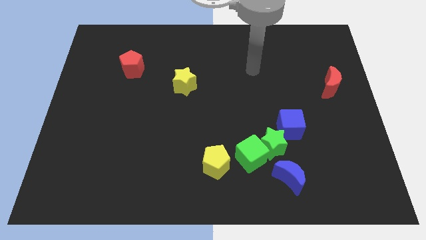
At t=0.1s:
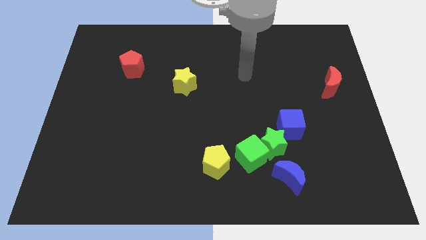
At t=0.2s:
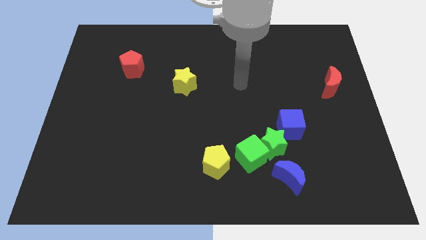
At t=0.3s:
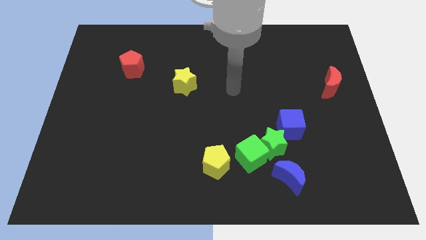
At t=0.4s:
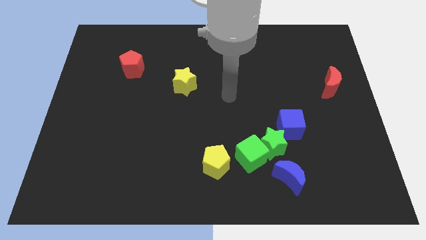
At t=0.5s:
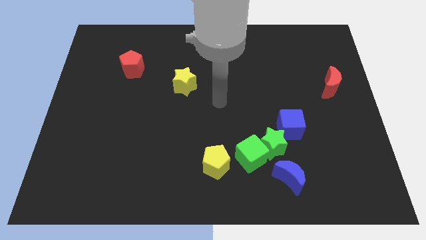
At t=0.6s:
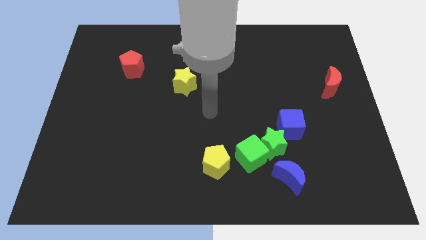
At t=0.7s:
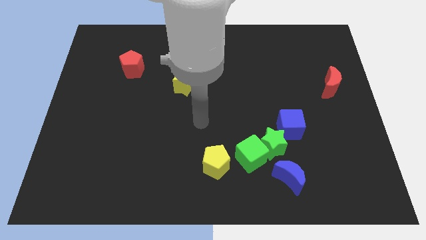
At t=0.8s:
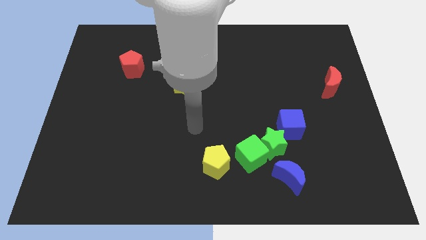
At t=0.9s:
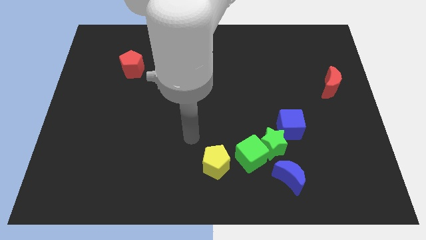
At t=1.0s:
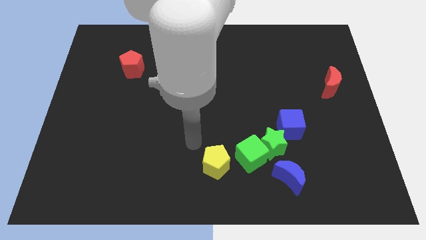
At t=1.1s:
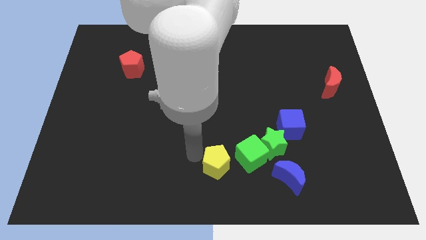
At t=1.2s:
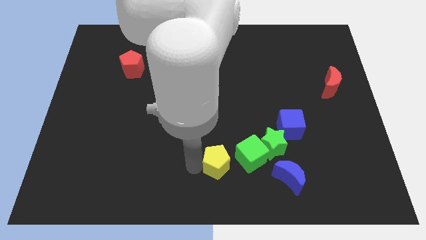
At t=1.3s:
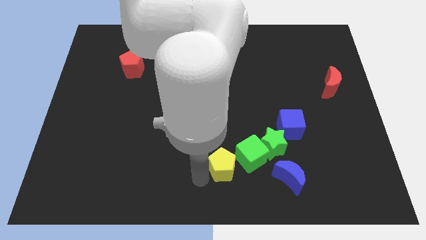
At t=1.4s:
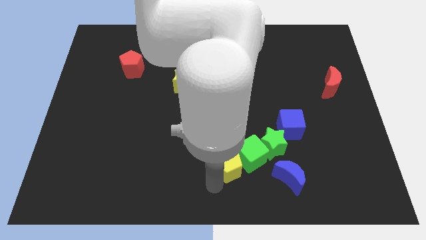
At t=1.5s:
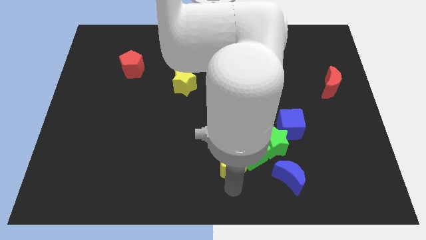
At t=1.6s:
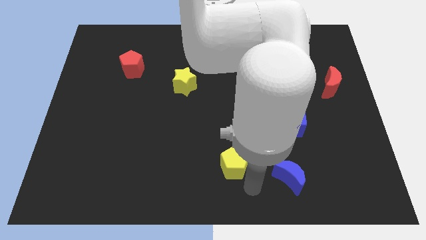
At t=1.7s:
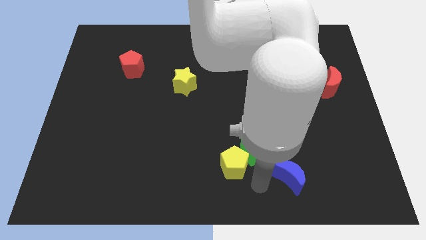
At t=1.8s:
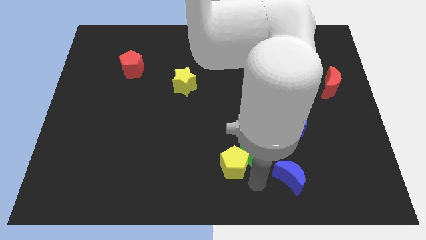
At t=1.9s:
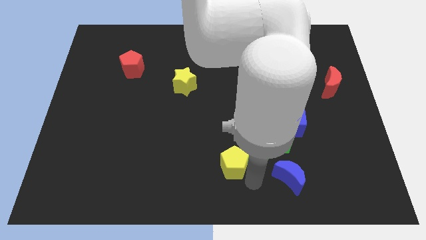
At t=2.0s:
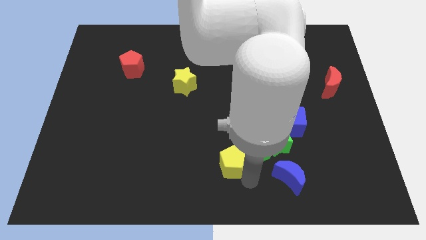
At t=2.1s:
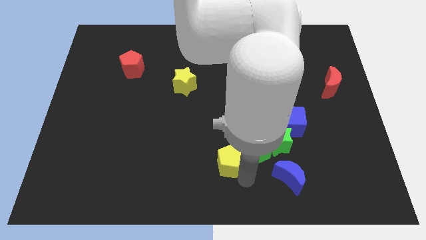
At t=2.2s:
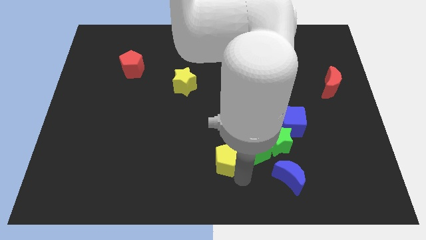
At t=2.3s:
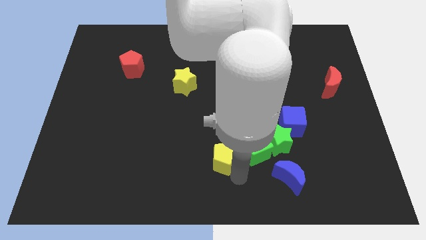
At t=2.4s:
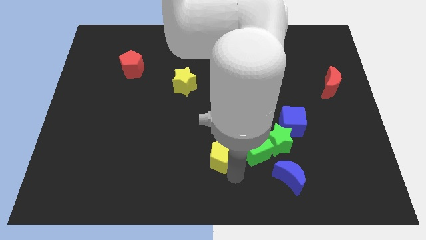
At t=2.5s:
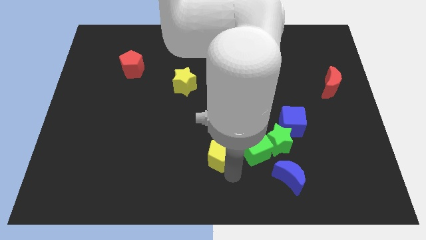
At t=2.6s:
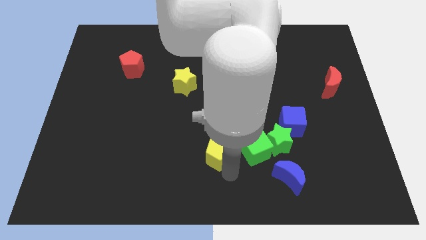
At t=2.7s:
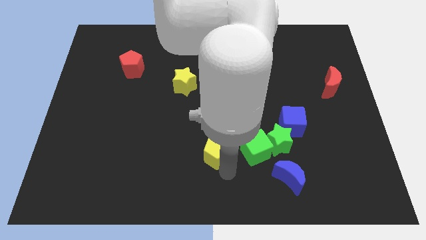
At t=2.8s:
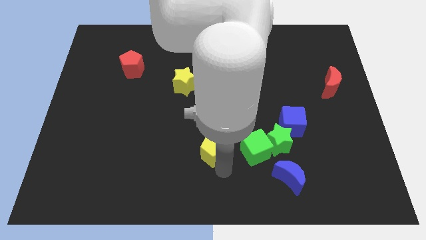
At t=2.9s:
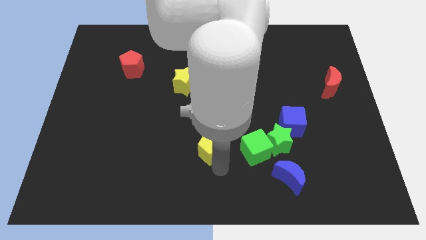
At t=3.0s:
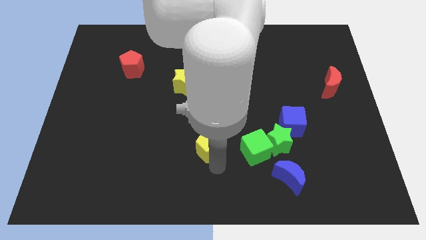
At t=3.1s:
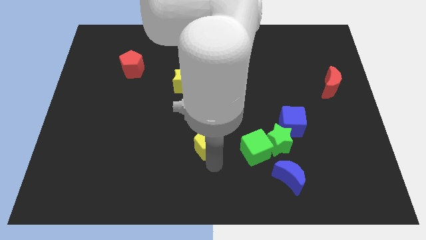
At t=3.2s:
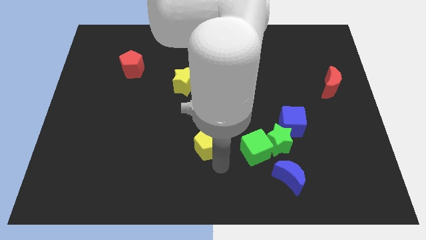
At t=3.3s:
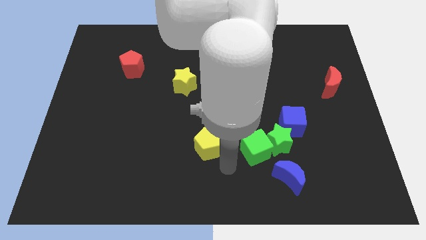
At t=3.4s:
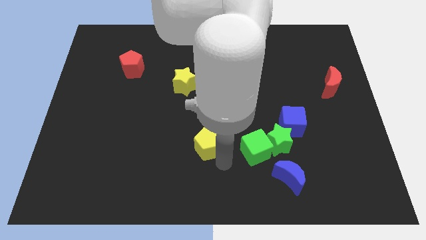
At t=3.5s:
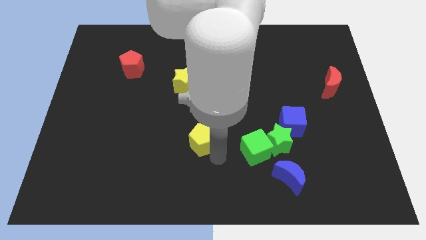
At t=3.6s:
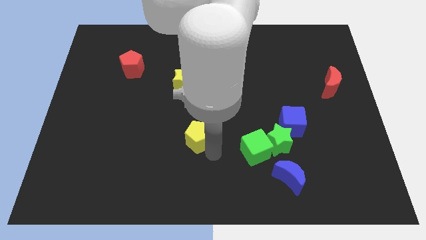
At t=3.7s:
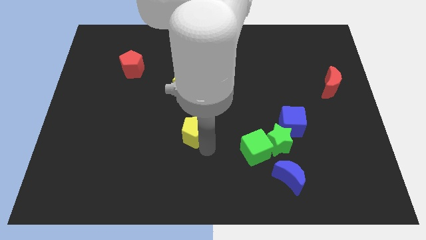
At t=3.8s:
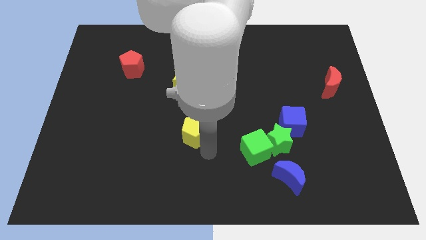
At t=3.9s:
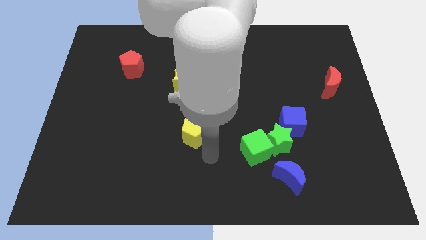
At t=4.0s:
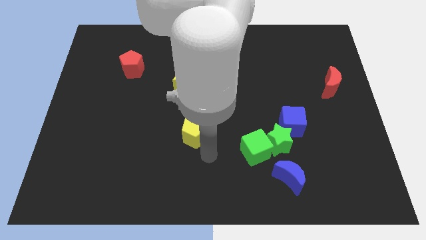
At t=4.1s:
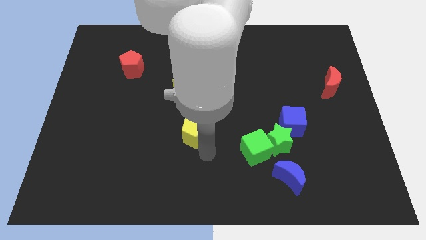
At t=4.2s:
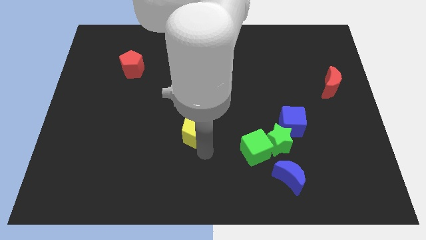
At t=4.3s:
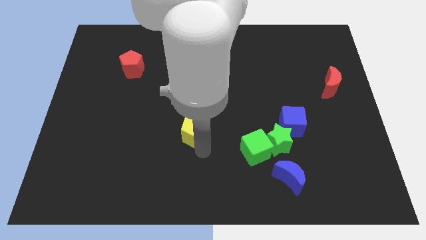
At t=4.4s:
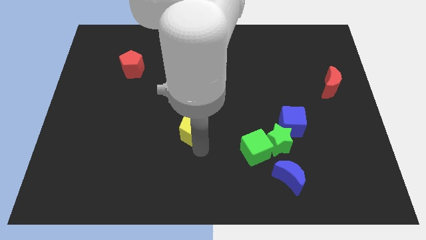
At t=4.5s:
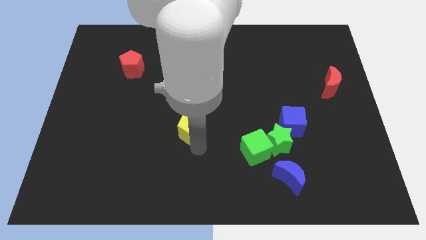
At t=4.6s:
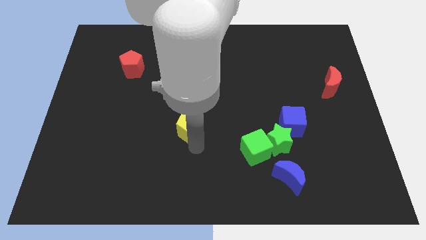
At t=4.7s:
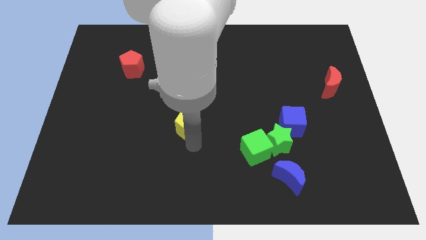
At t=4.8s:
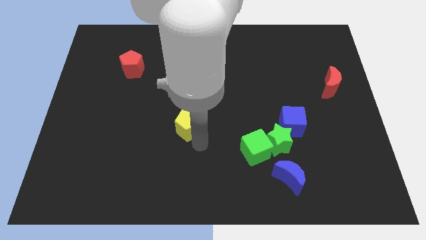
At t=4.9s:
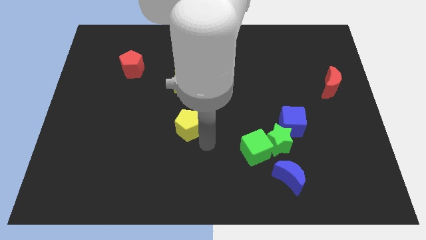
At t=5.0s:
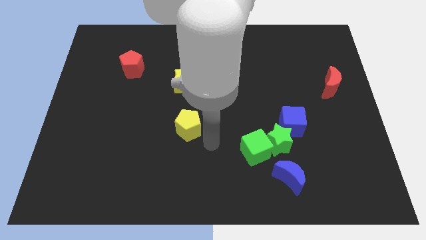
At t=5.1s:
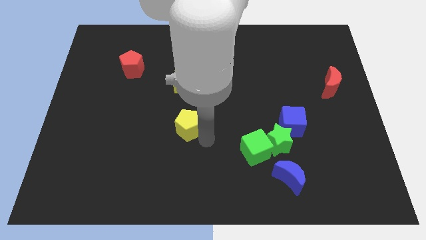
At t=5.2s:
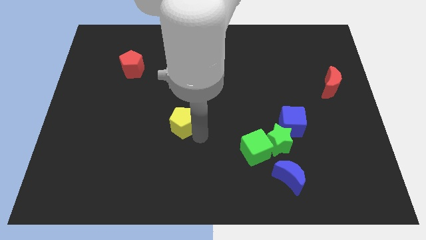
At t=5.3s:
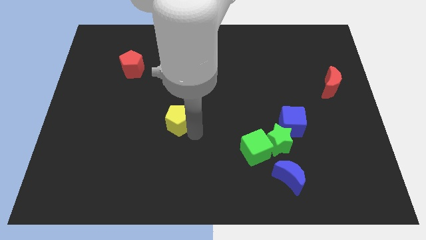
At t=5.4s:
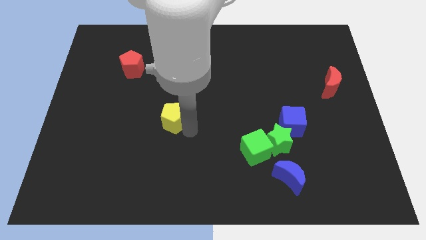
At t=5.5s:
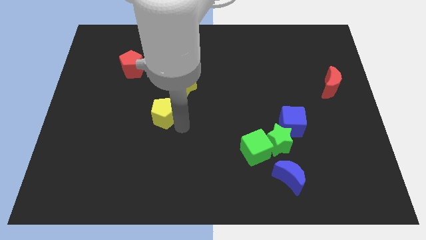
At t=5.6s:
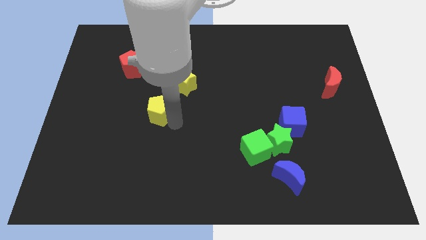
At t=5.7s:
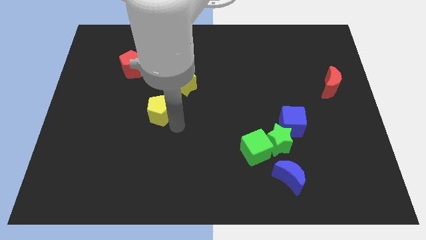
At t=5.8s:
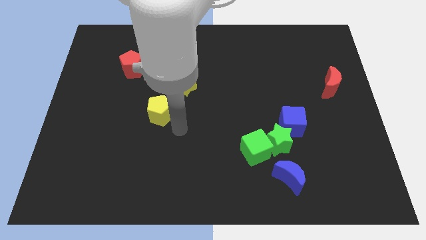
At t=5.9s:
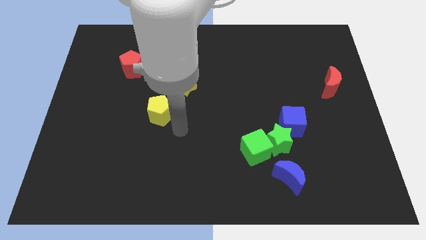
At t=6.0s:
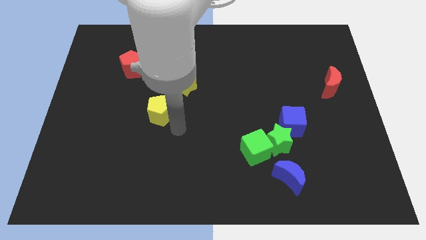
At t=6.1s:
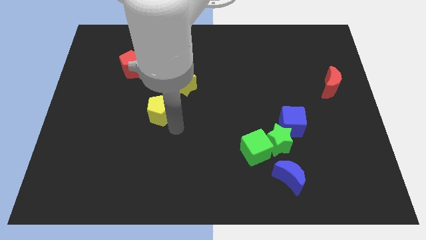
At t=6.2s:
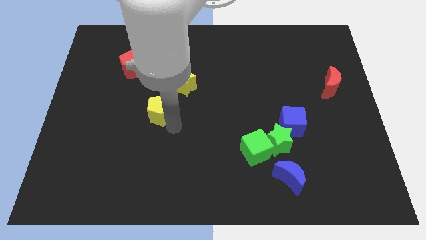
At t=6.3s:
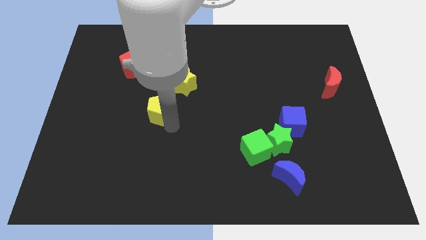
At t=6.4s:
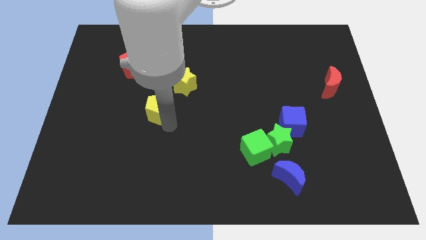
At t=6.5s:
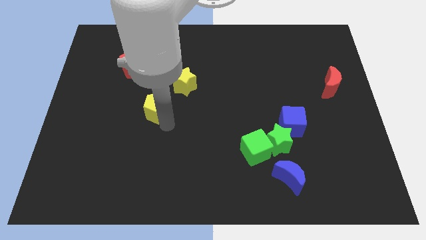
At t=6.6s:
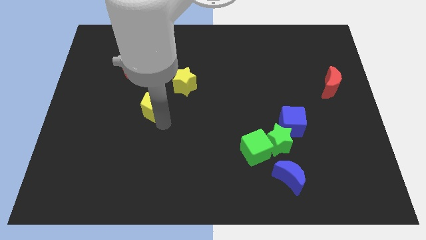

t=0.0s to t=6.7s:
move the yellow pentagon up and to the left diagonally

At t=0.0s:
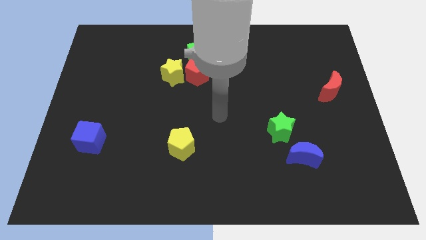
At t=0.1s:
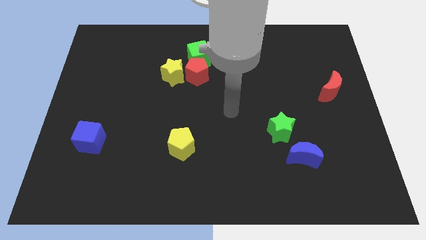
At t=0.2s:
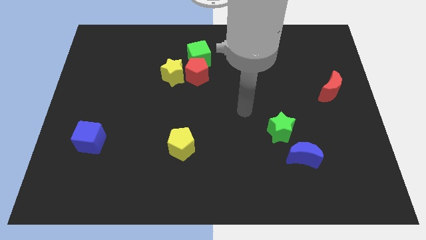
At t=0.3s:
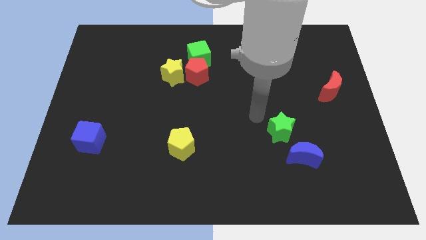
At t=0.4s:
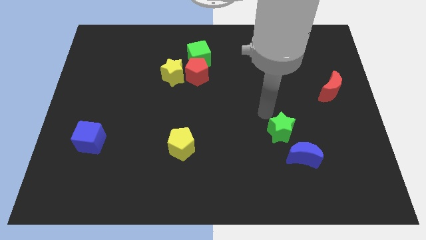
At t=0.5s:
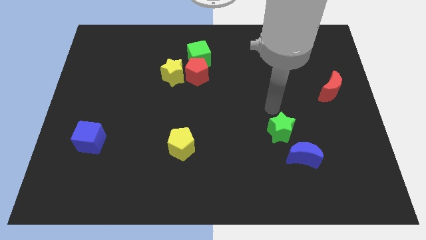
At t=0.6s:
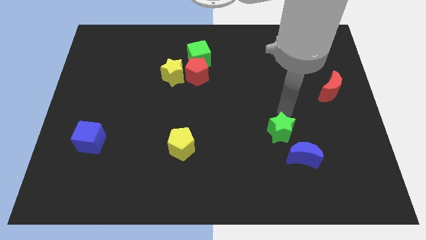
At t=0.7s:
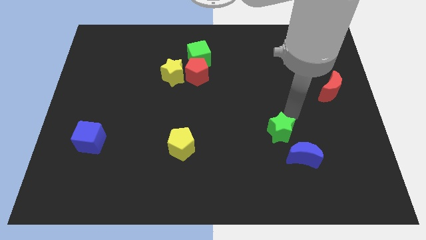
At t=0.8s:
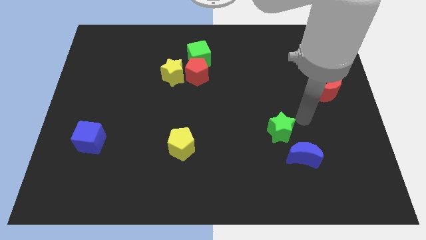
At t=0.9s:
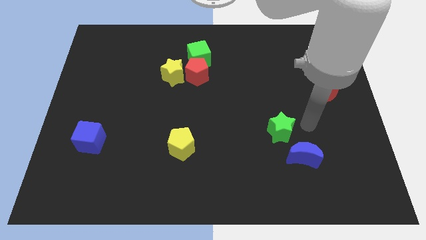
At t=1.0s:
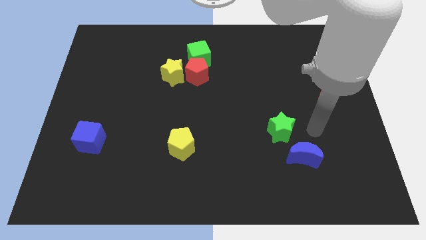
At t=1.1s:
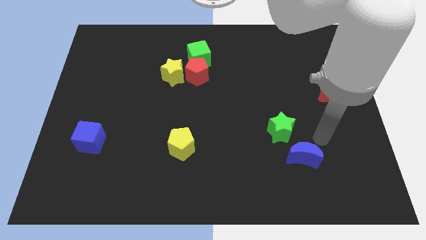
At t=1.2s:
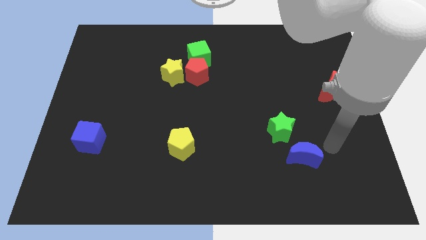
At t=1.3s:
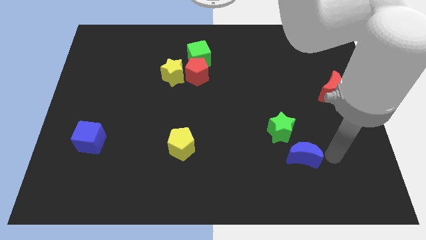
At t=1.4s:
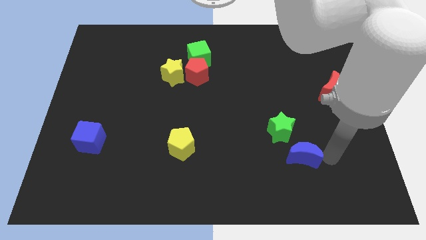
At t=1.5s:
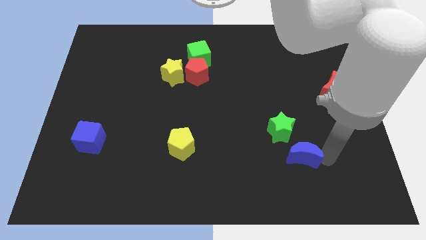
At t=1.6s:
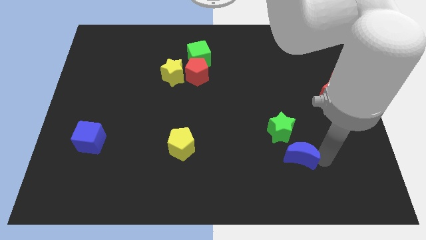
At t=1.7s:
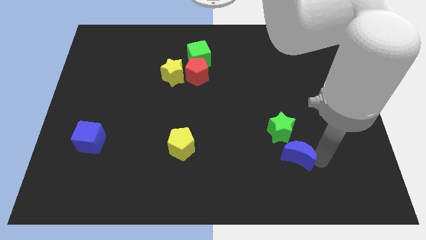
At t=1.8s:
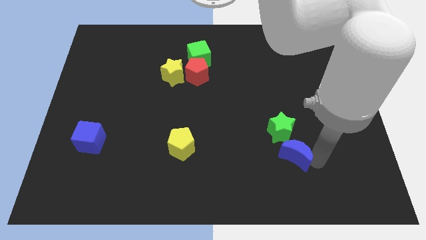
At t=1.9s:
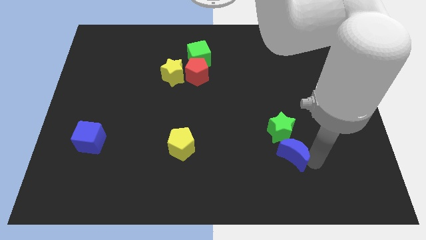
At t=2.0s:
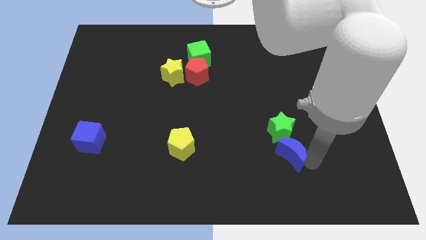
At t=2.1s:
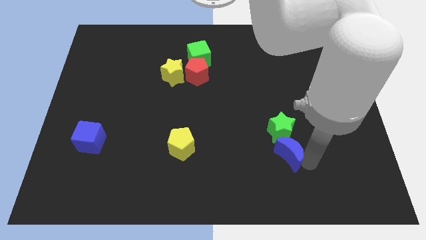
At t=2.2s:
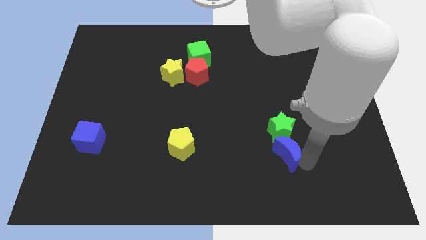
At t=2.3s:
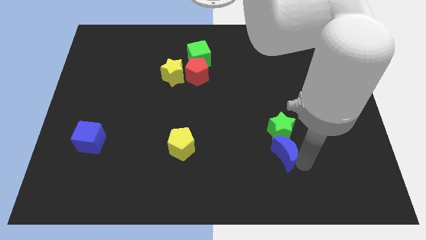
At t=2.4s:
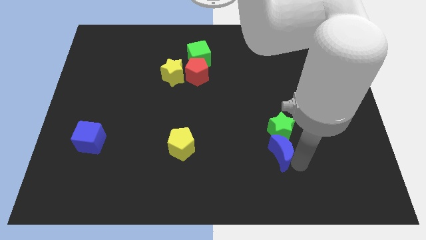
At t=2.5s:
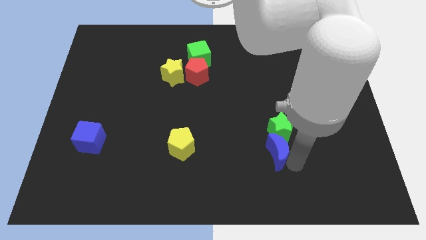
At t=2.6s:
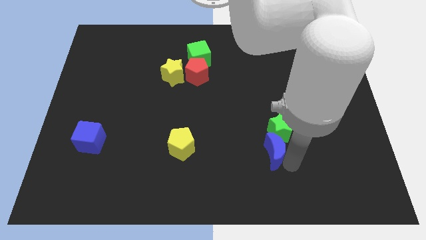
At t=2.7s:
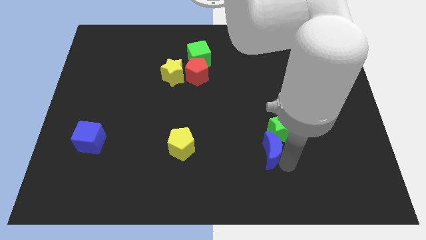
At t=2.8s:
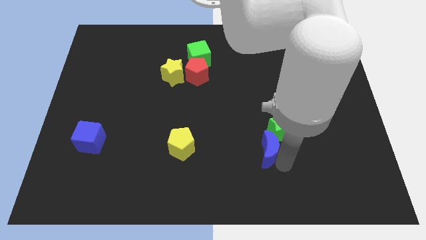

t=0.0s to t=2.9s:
slightly push the blue moon left
